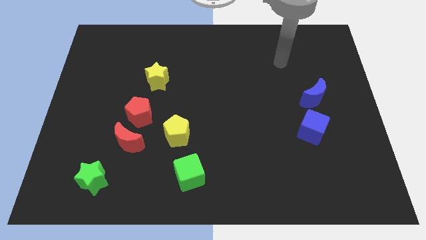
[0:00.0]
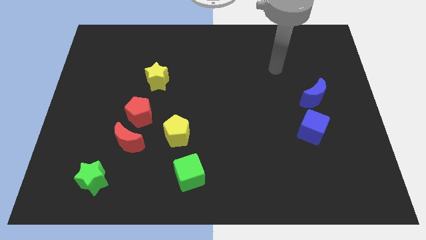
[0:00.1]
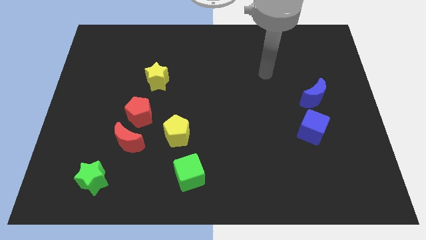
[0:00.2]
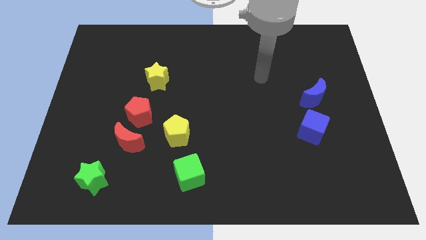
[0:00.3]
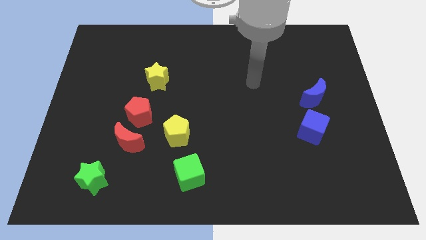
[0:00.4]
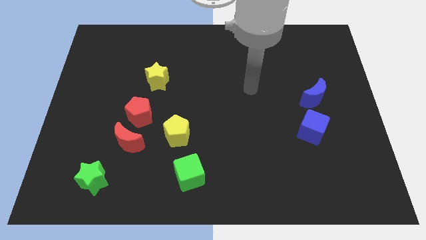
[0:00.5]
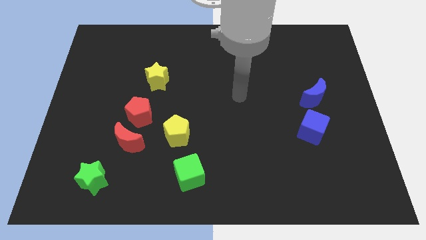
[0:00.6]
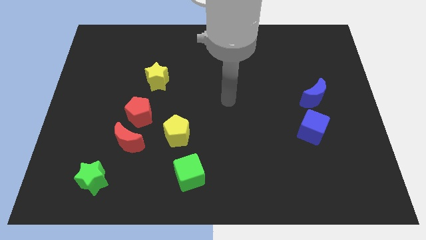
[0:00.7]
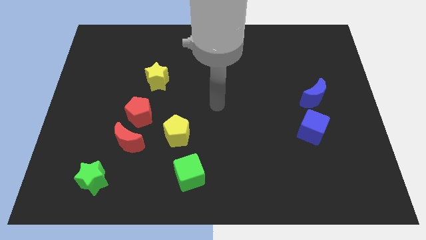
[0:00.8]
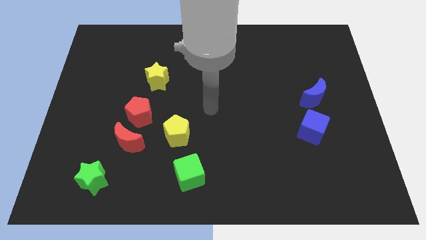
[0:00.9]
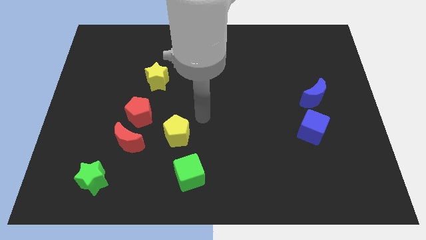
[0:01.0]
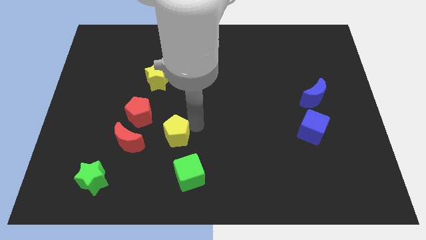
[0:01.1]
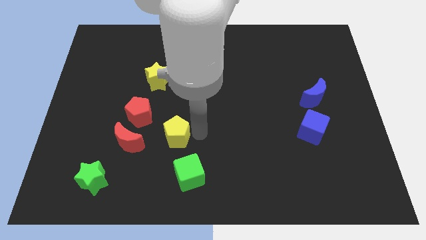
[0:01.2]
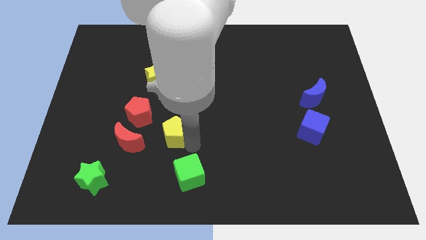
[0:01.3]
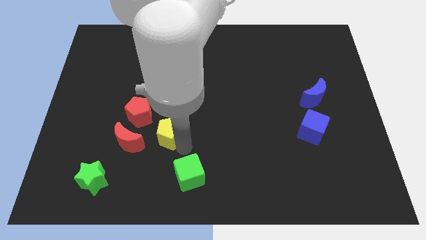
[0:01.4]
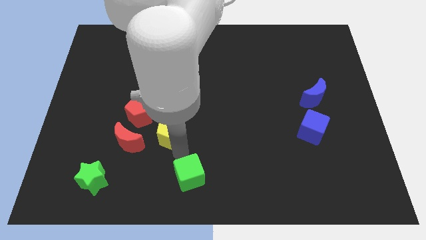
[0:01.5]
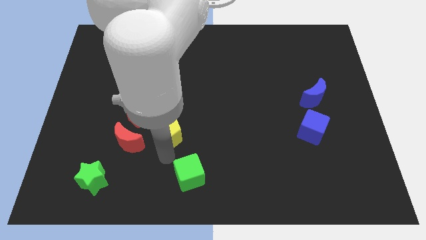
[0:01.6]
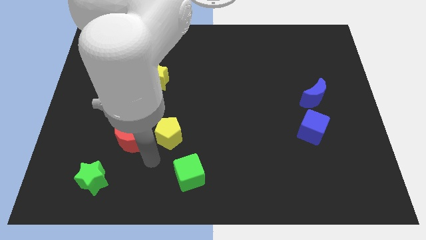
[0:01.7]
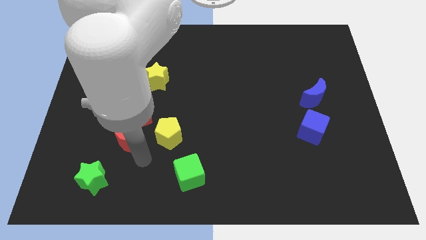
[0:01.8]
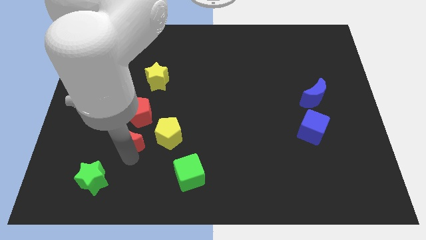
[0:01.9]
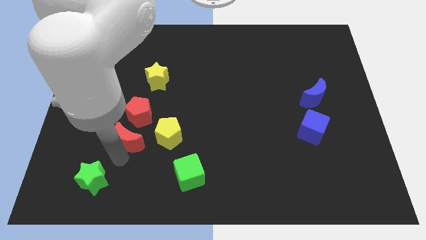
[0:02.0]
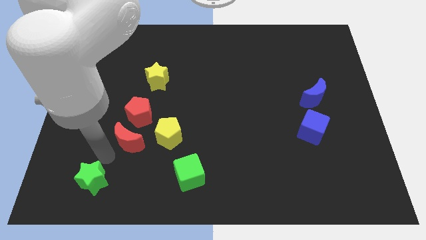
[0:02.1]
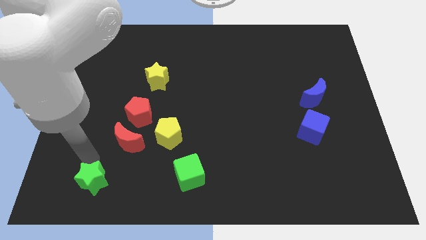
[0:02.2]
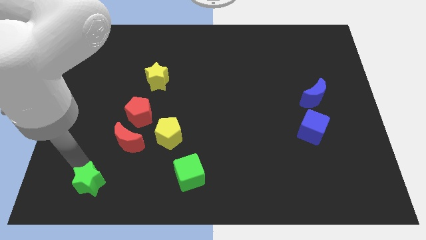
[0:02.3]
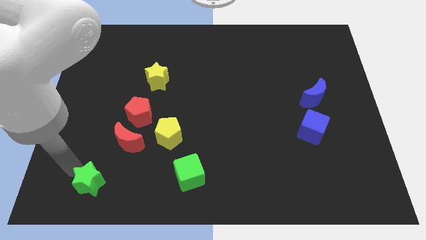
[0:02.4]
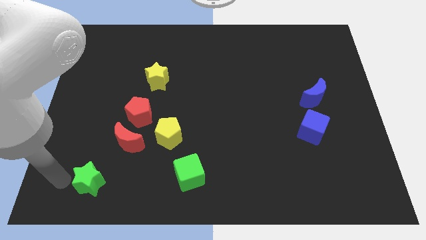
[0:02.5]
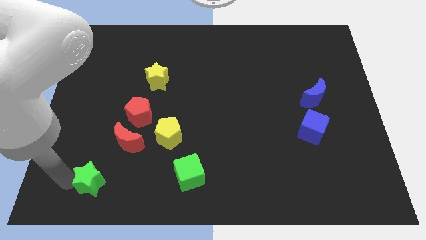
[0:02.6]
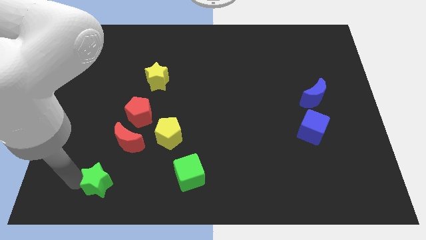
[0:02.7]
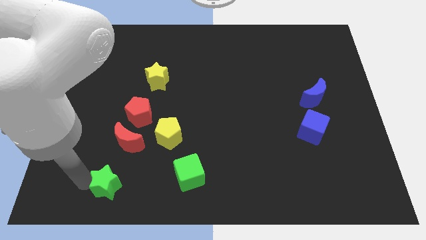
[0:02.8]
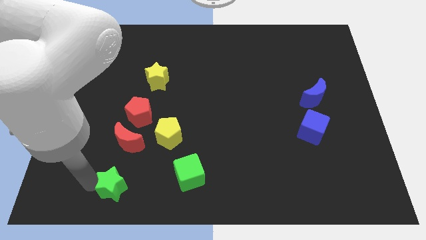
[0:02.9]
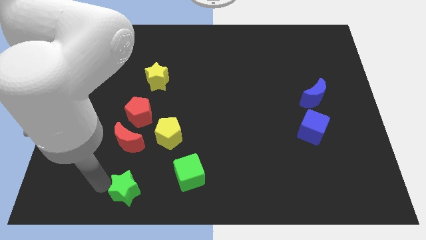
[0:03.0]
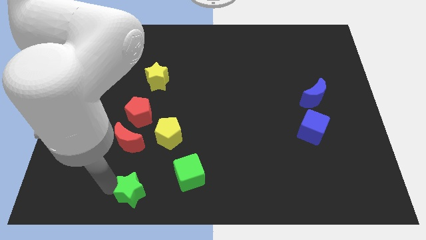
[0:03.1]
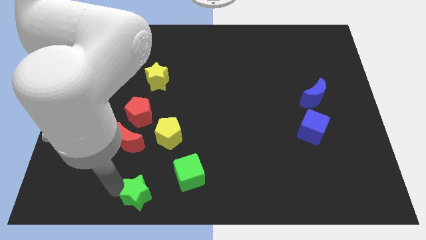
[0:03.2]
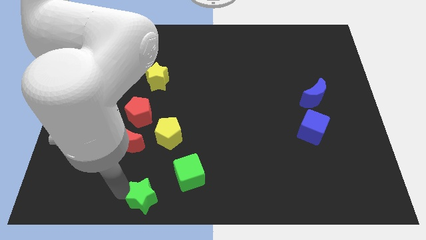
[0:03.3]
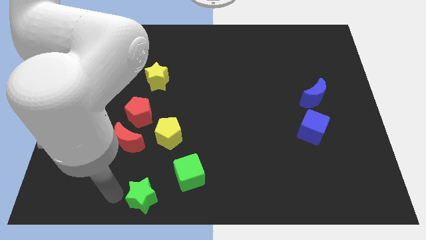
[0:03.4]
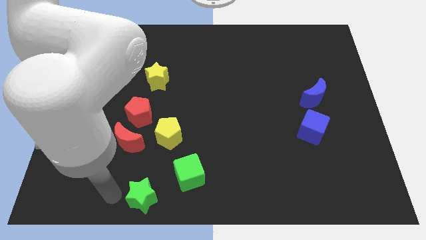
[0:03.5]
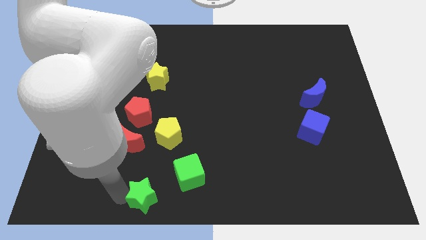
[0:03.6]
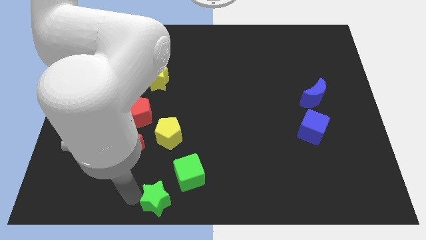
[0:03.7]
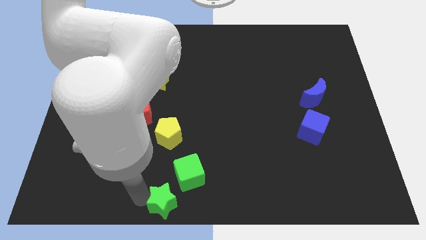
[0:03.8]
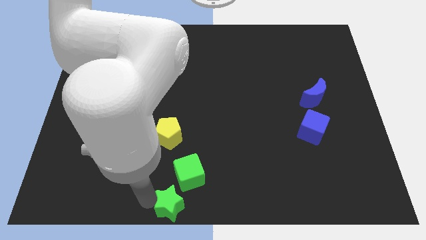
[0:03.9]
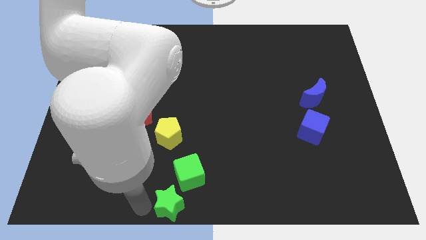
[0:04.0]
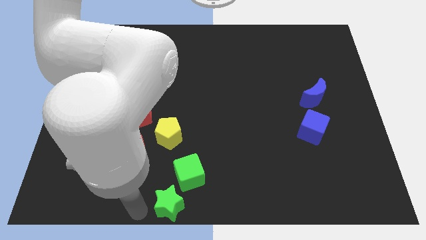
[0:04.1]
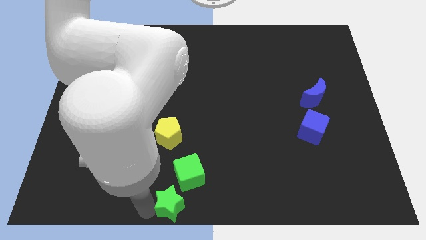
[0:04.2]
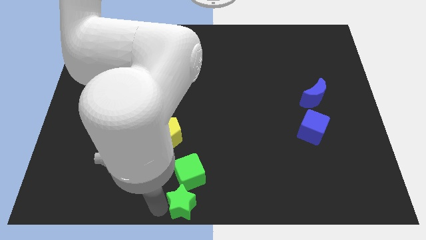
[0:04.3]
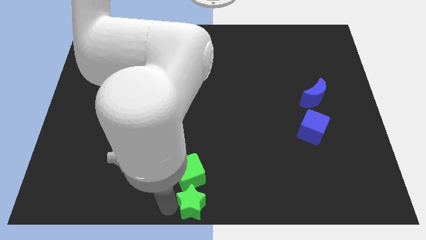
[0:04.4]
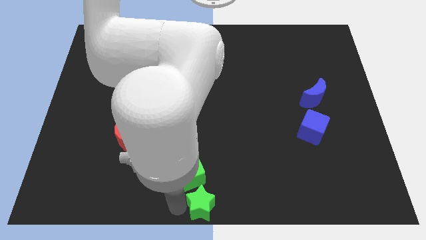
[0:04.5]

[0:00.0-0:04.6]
push the green star right

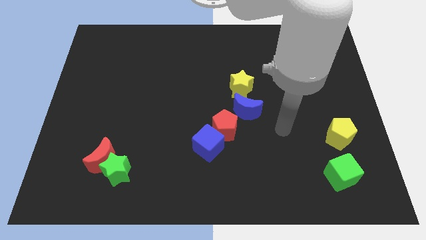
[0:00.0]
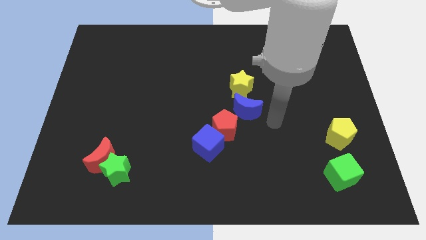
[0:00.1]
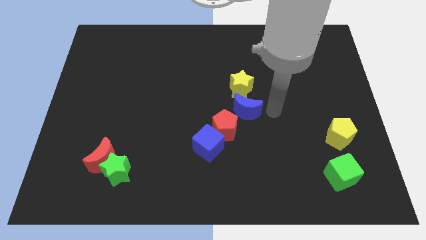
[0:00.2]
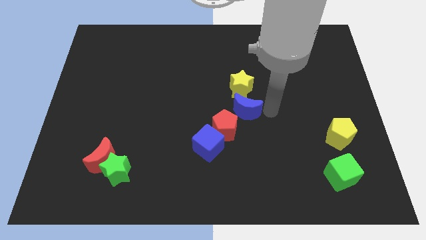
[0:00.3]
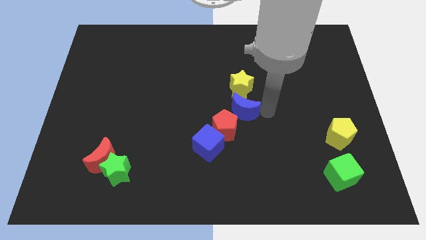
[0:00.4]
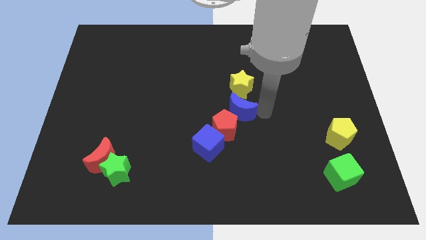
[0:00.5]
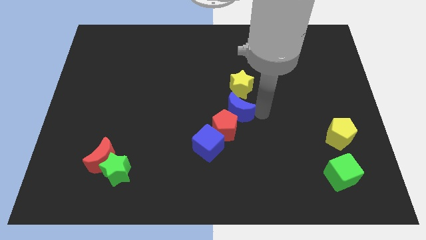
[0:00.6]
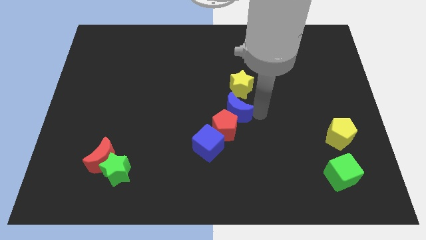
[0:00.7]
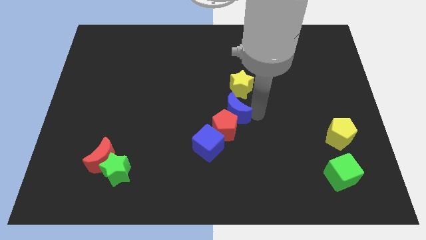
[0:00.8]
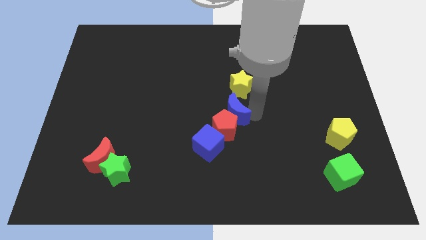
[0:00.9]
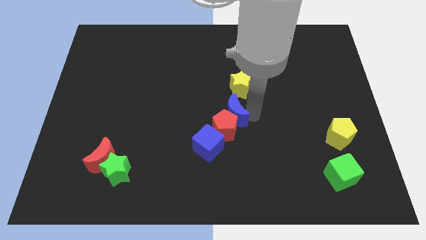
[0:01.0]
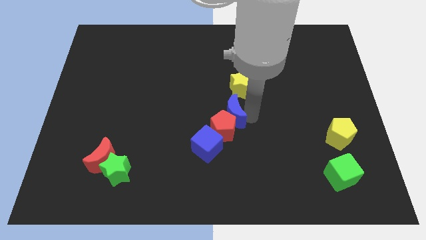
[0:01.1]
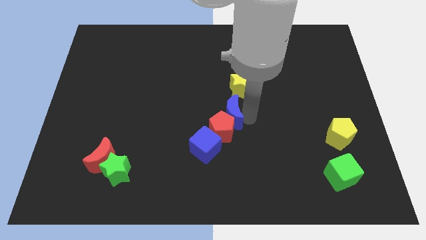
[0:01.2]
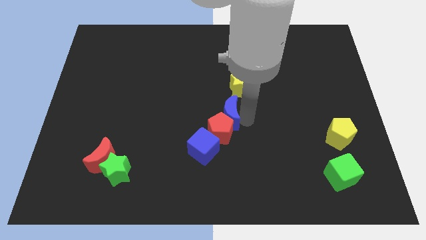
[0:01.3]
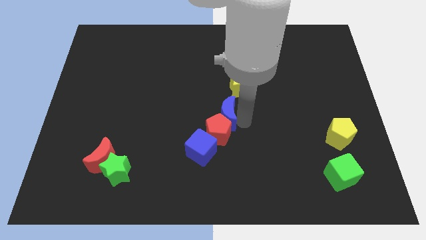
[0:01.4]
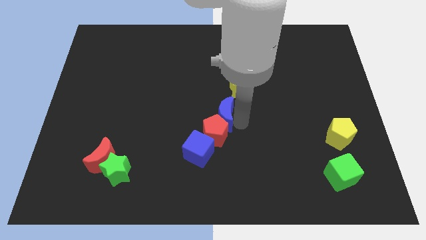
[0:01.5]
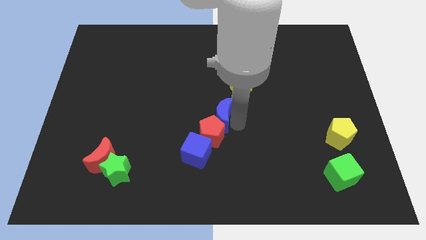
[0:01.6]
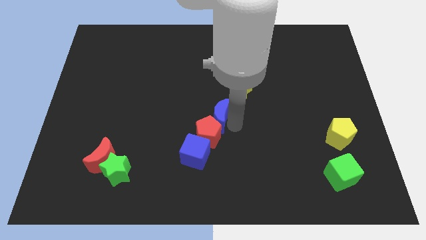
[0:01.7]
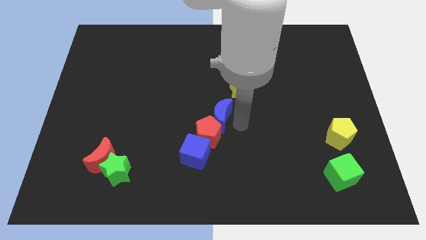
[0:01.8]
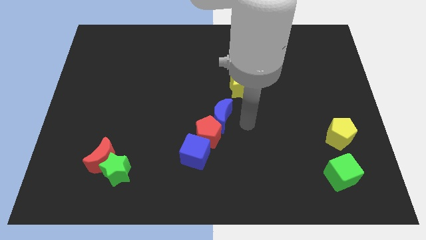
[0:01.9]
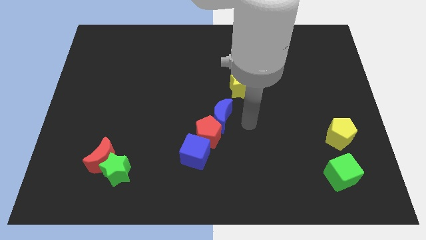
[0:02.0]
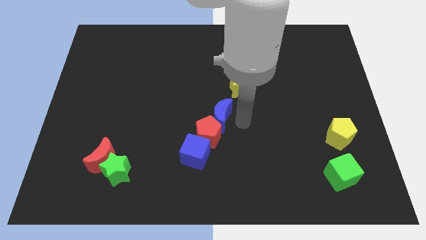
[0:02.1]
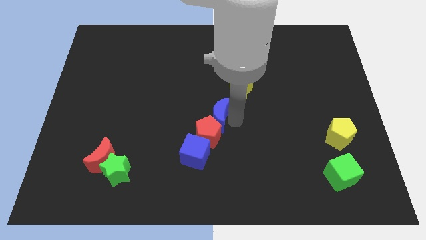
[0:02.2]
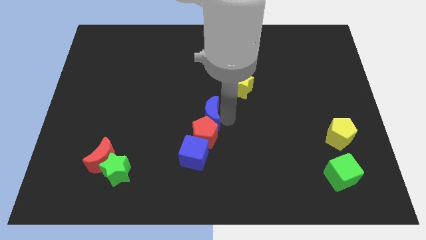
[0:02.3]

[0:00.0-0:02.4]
slightly push the blue moon left

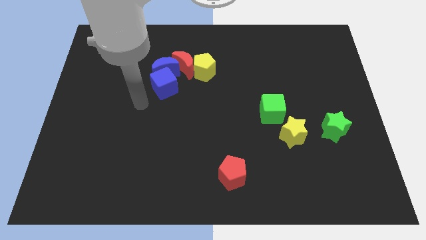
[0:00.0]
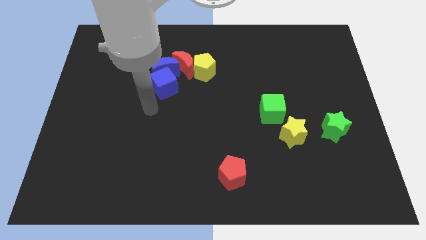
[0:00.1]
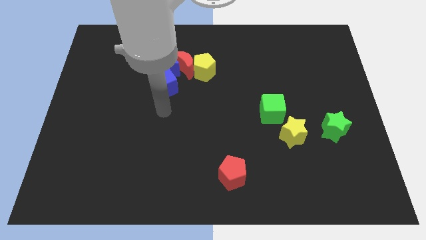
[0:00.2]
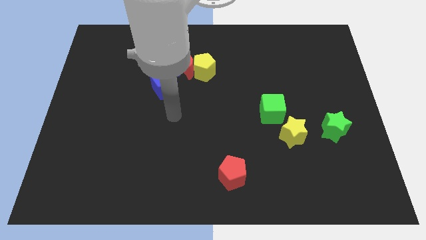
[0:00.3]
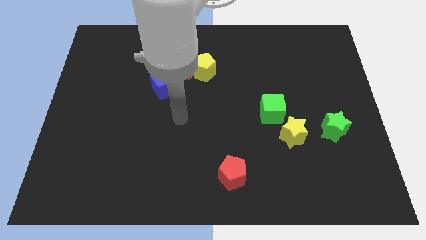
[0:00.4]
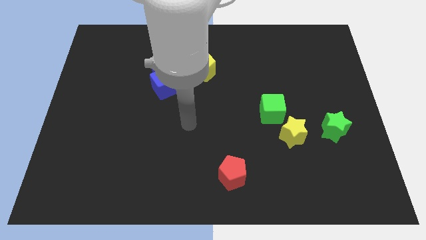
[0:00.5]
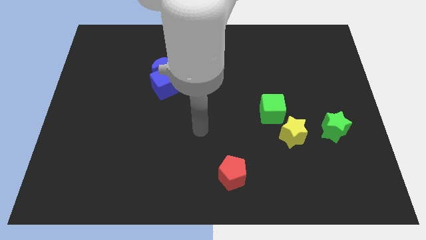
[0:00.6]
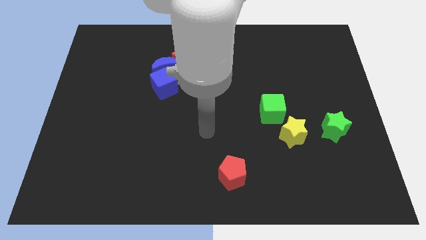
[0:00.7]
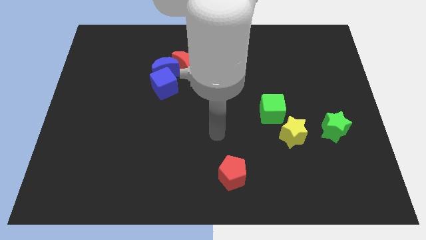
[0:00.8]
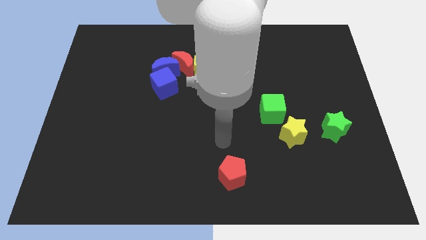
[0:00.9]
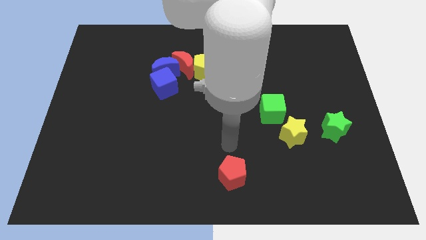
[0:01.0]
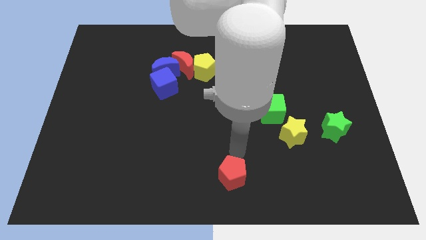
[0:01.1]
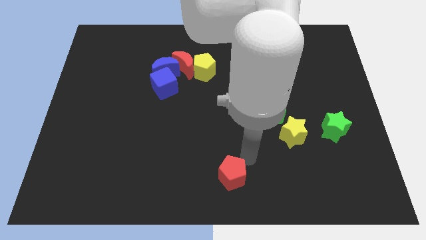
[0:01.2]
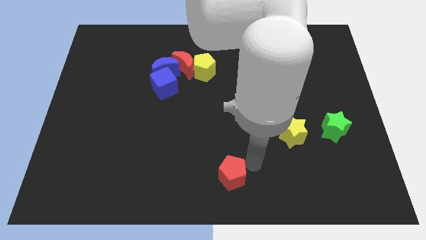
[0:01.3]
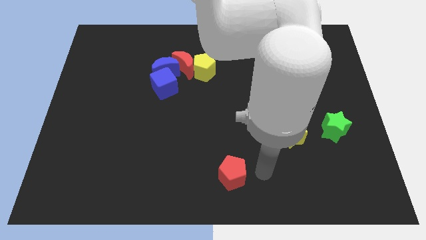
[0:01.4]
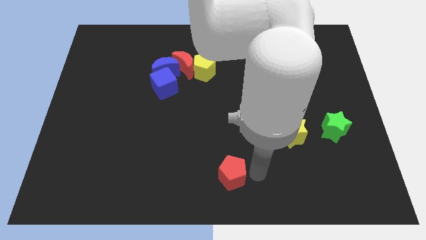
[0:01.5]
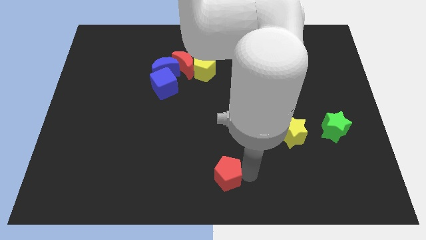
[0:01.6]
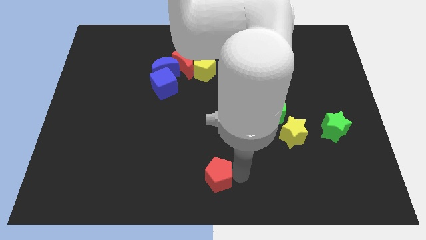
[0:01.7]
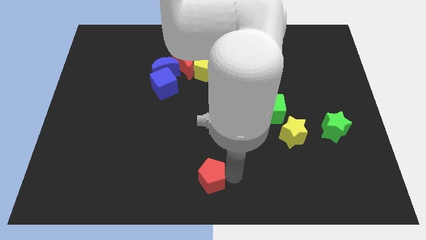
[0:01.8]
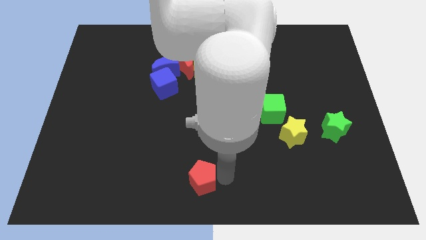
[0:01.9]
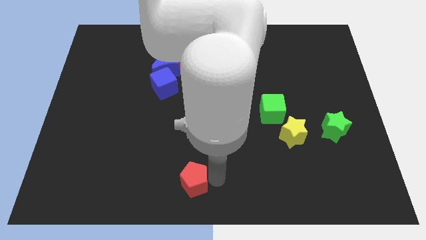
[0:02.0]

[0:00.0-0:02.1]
slightly slide the red pentagon left
